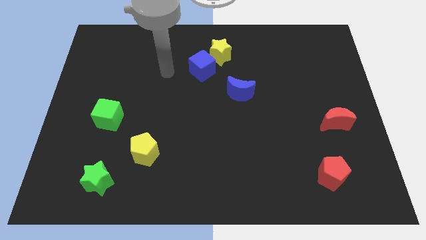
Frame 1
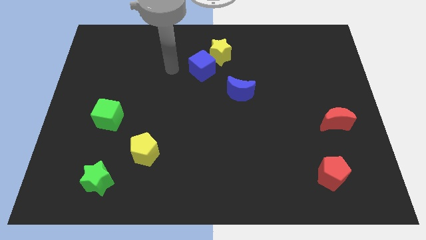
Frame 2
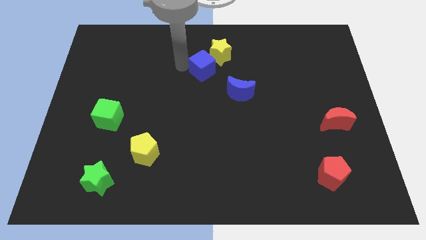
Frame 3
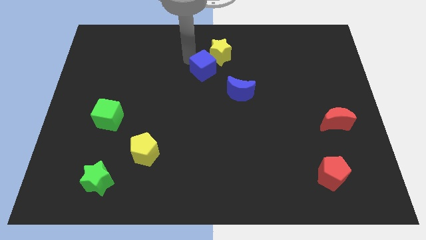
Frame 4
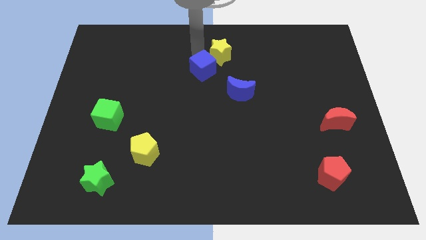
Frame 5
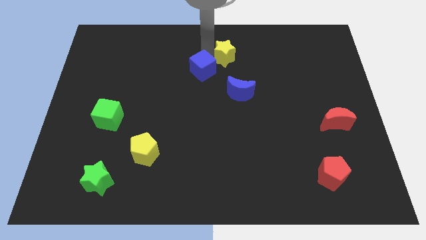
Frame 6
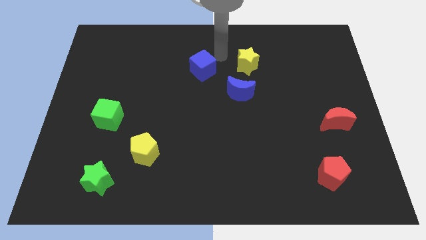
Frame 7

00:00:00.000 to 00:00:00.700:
separate the blue cube from the yellow star

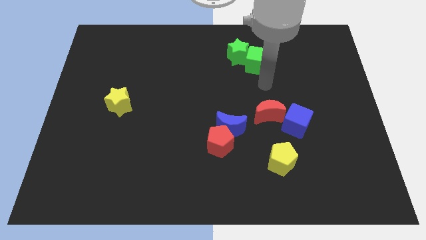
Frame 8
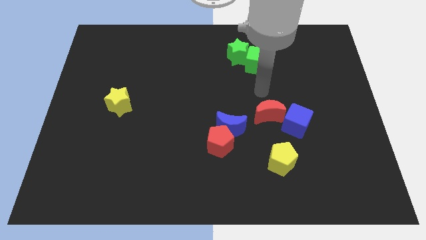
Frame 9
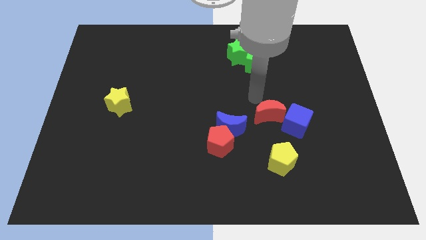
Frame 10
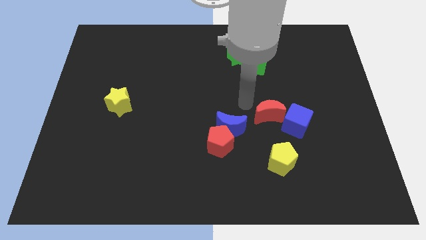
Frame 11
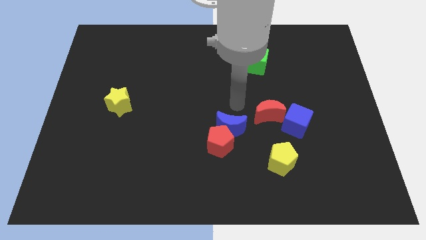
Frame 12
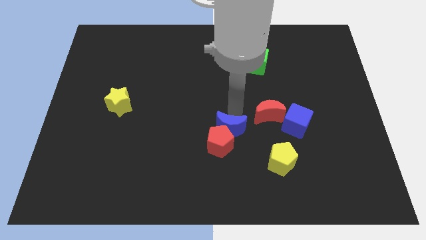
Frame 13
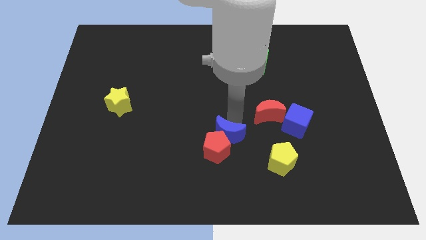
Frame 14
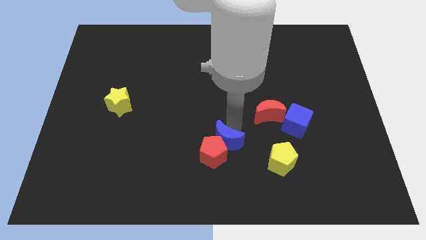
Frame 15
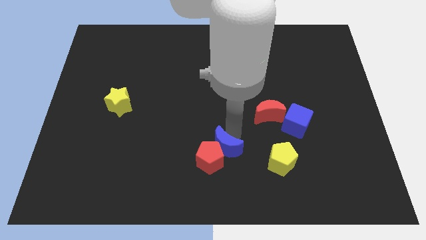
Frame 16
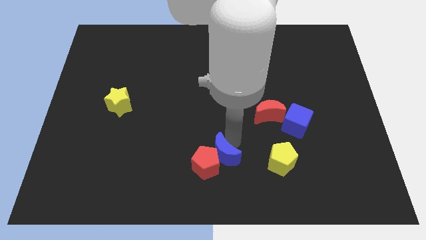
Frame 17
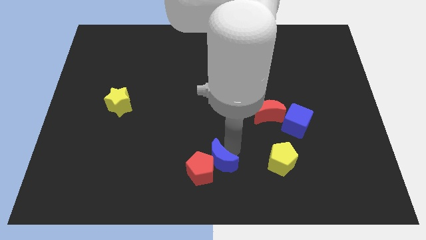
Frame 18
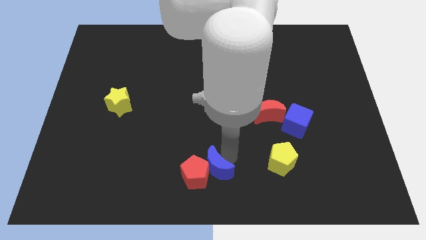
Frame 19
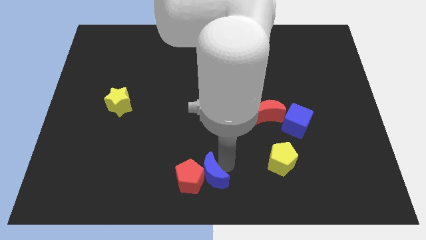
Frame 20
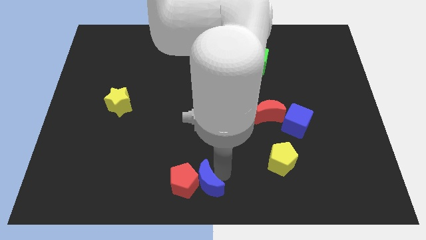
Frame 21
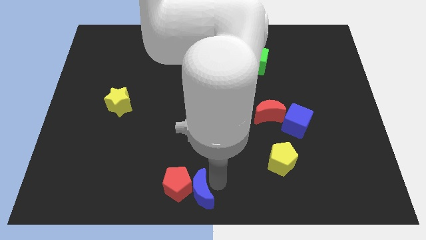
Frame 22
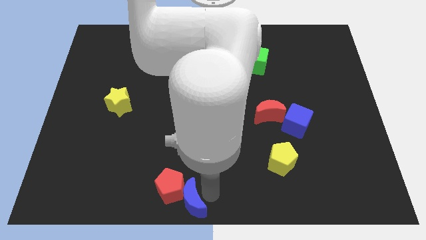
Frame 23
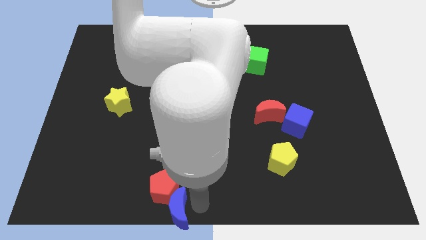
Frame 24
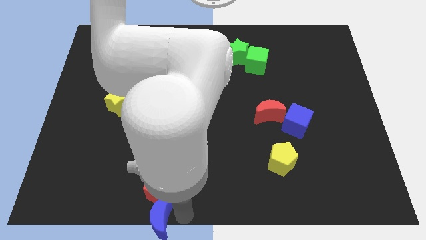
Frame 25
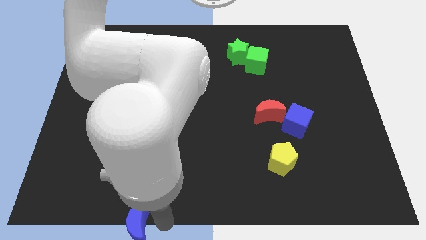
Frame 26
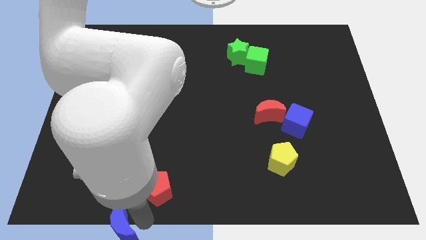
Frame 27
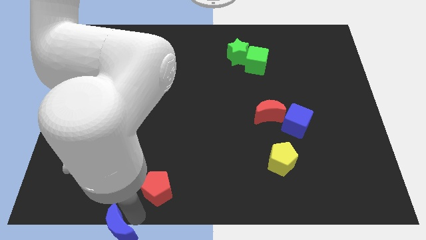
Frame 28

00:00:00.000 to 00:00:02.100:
move the red pentagon away from the blue moon

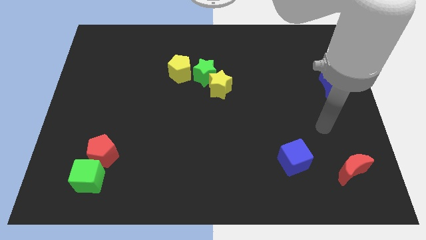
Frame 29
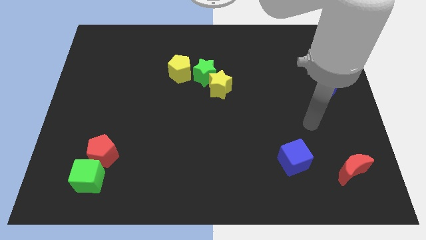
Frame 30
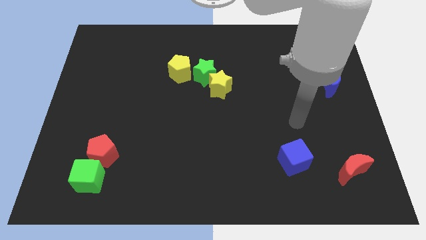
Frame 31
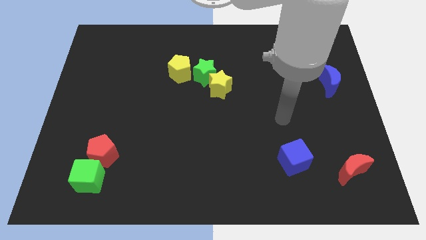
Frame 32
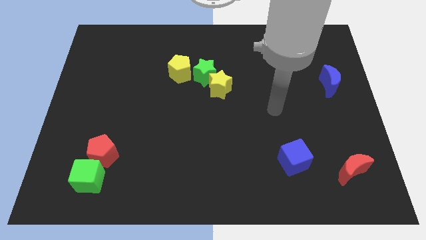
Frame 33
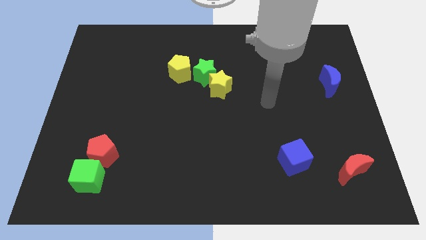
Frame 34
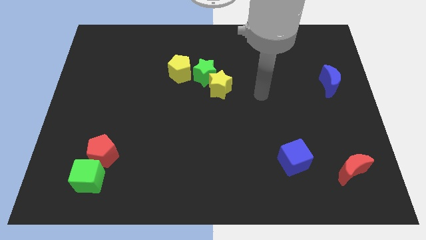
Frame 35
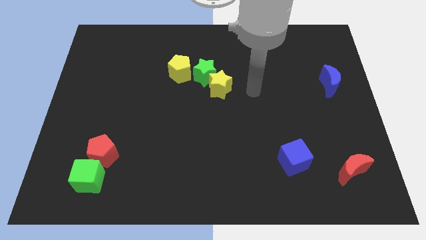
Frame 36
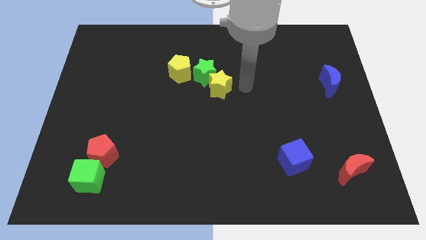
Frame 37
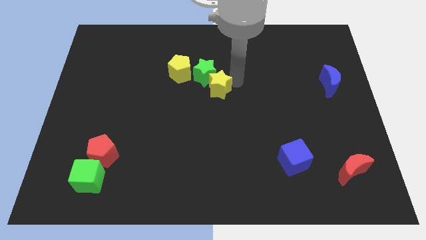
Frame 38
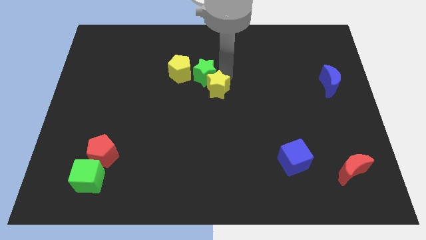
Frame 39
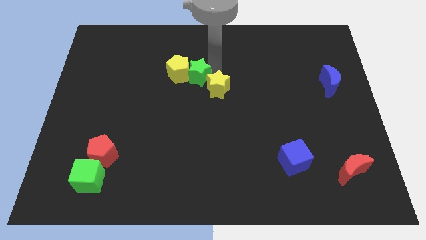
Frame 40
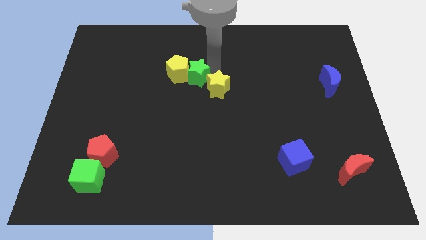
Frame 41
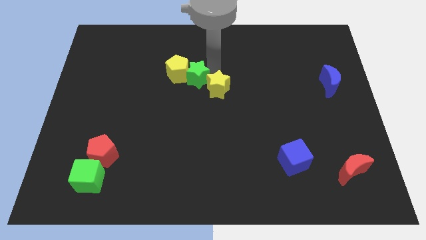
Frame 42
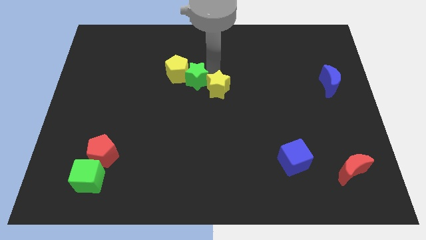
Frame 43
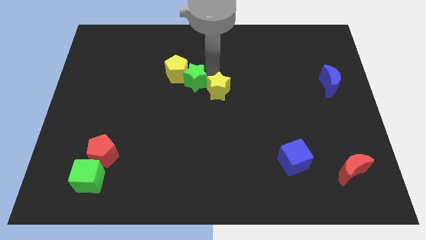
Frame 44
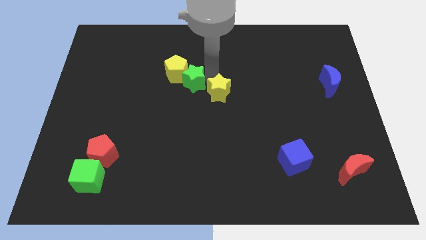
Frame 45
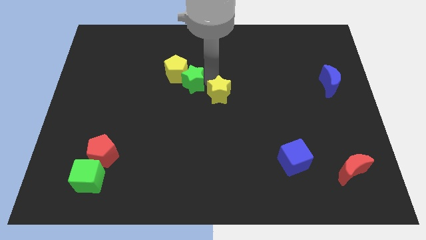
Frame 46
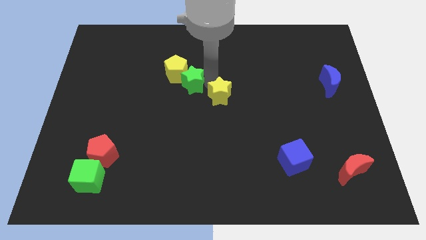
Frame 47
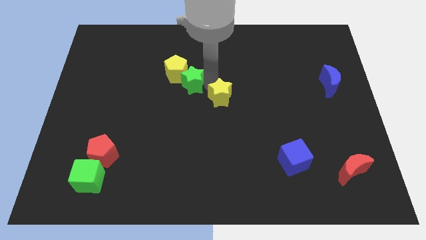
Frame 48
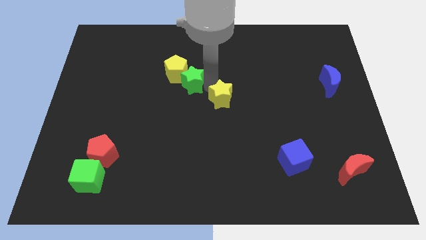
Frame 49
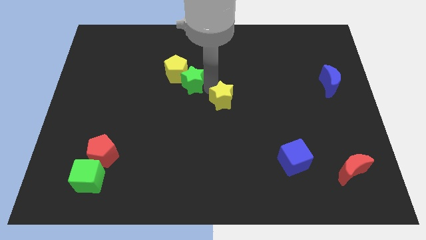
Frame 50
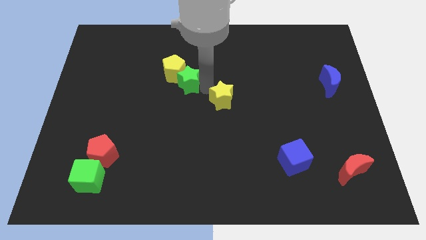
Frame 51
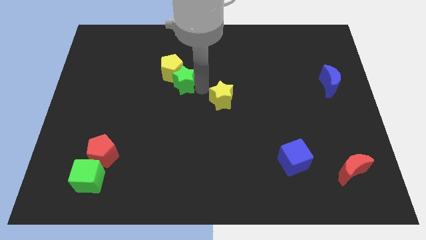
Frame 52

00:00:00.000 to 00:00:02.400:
pull the yellow star apart from the green star

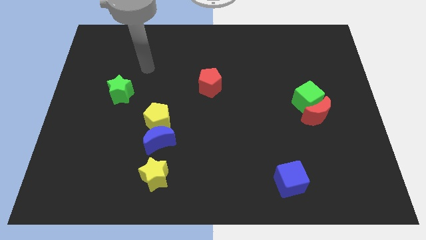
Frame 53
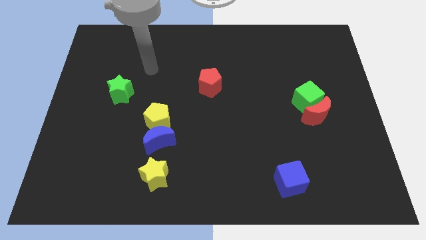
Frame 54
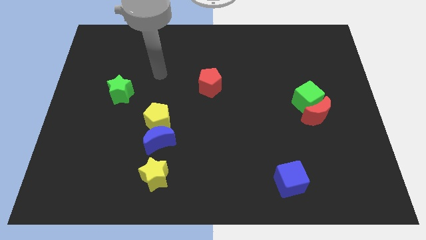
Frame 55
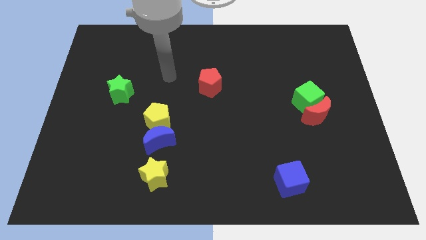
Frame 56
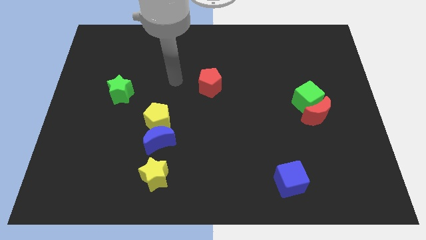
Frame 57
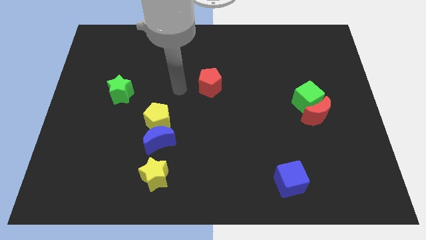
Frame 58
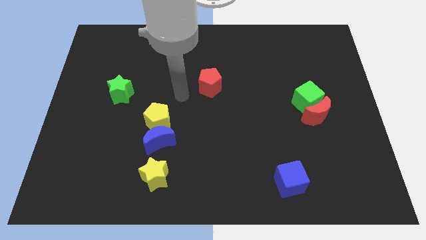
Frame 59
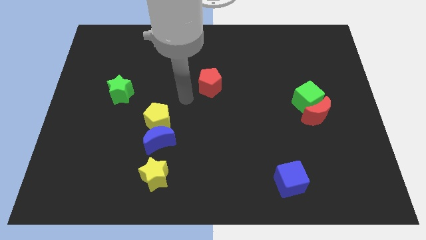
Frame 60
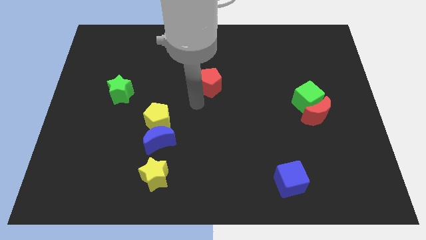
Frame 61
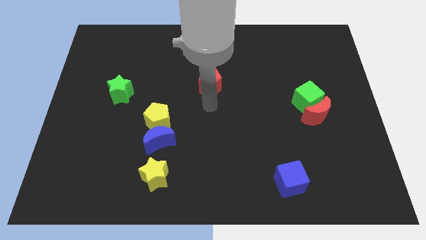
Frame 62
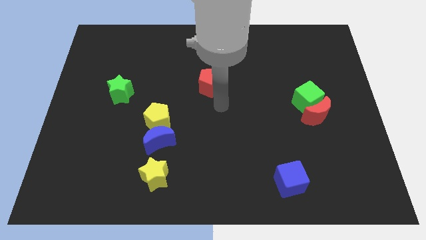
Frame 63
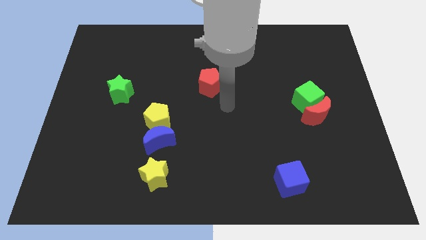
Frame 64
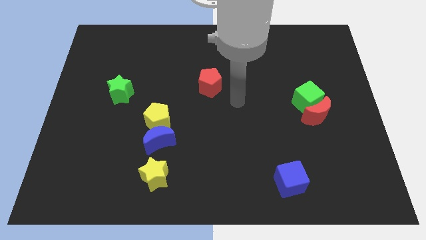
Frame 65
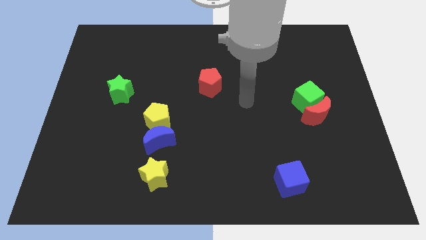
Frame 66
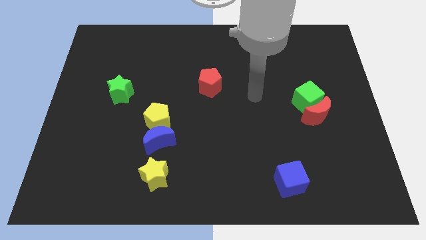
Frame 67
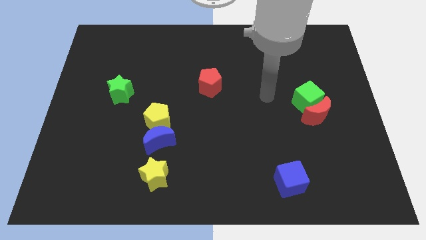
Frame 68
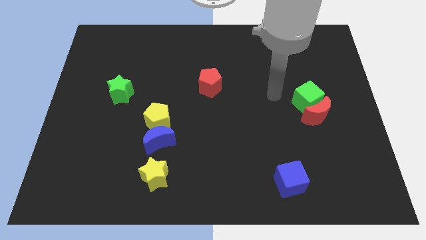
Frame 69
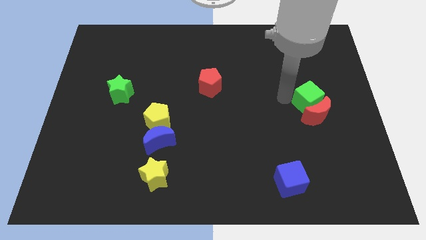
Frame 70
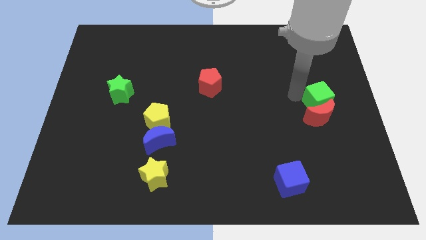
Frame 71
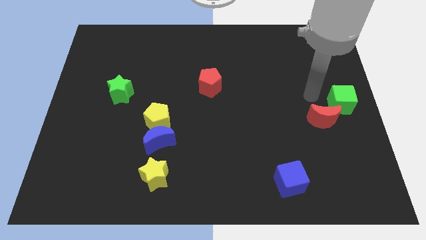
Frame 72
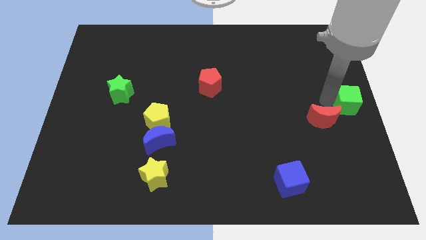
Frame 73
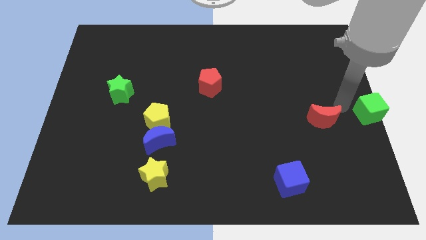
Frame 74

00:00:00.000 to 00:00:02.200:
separate the red moon from the green cube

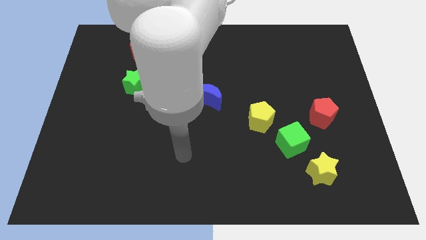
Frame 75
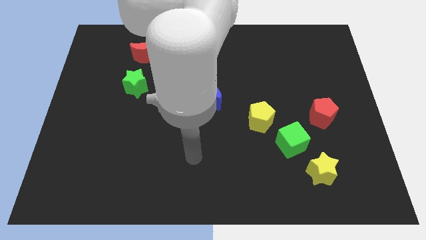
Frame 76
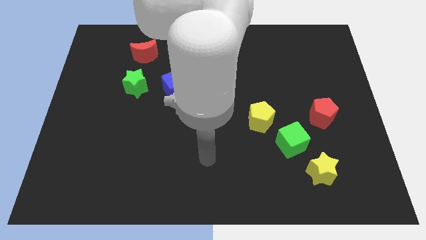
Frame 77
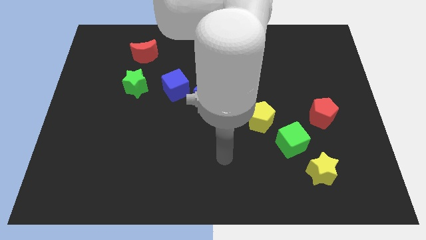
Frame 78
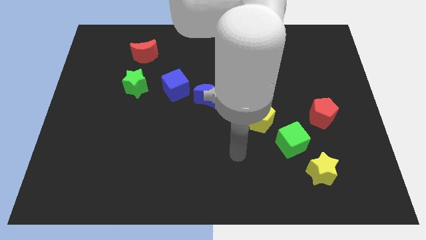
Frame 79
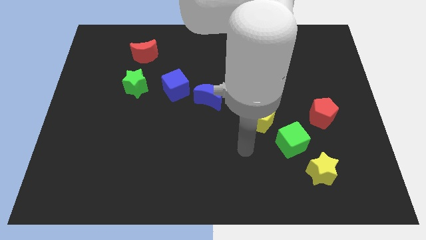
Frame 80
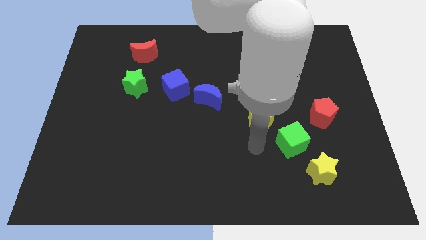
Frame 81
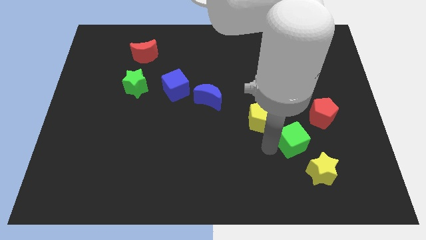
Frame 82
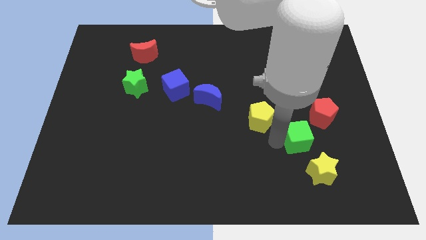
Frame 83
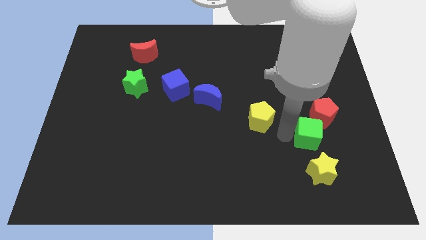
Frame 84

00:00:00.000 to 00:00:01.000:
move the yellow pentagon away from the green cube

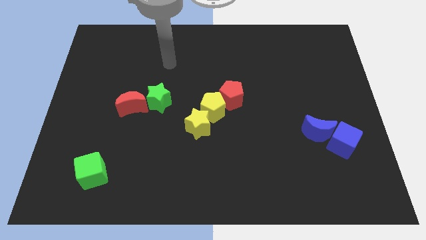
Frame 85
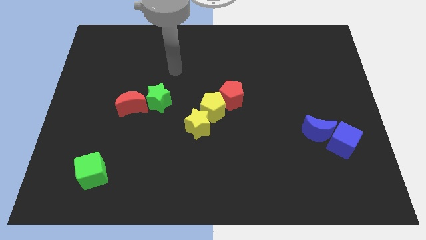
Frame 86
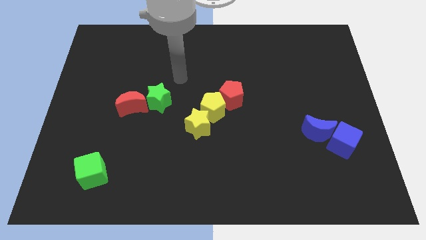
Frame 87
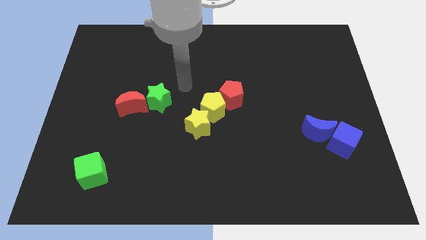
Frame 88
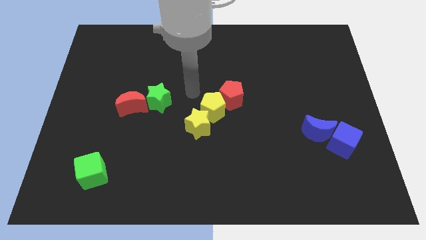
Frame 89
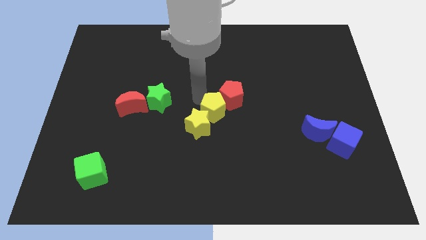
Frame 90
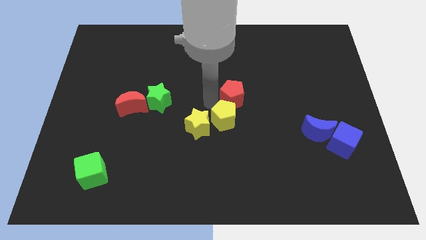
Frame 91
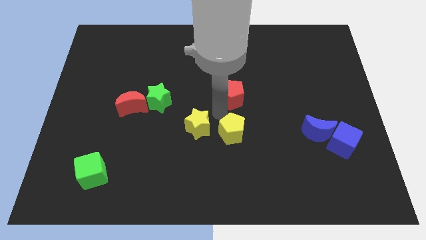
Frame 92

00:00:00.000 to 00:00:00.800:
separate the red pentagon from the yellow pentagon
